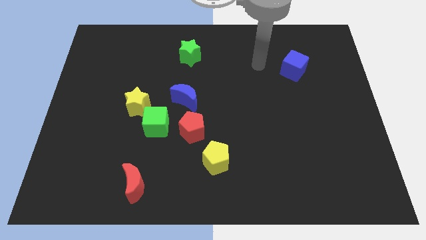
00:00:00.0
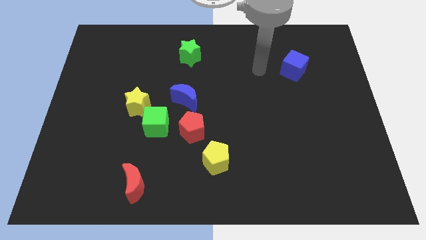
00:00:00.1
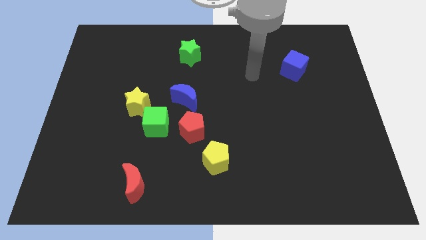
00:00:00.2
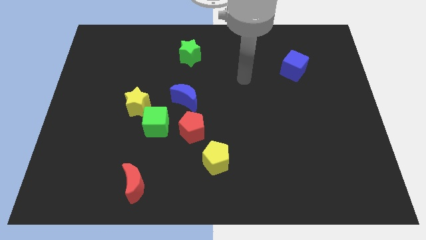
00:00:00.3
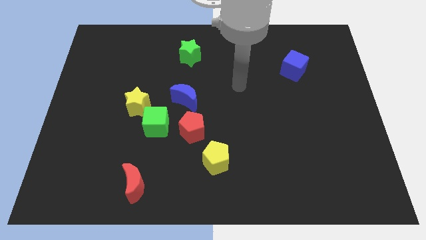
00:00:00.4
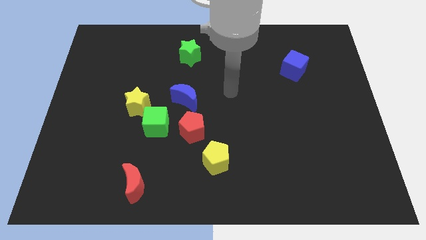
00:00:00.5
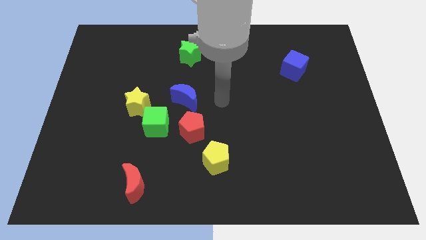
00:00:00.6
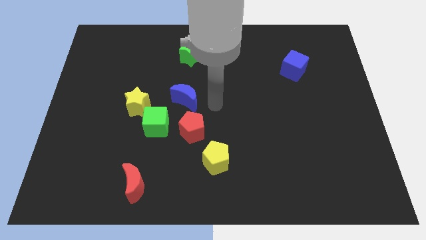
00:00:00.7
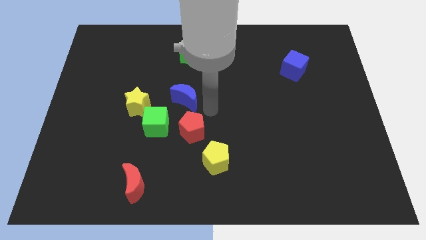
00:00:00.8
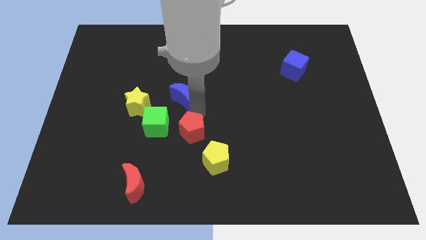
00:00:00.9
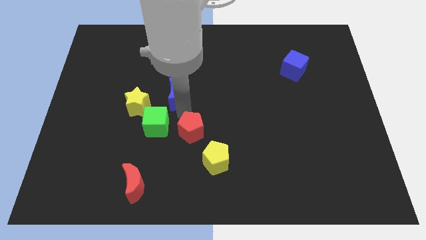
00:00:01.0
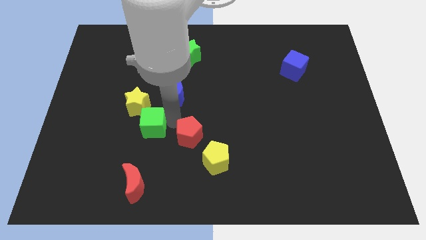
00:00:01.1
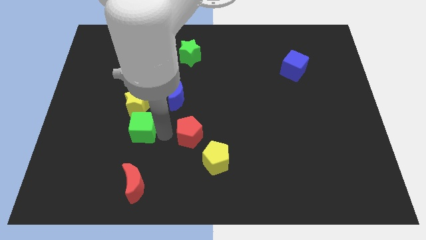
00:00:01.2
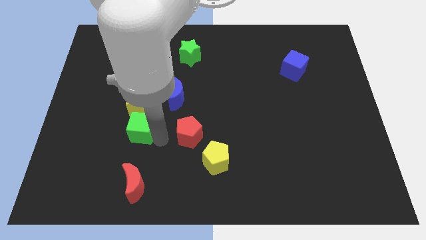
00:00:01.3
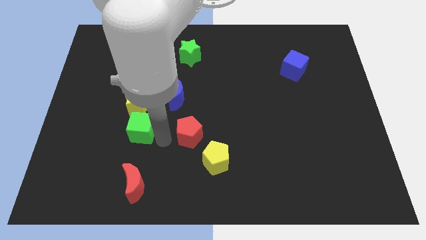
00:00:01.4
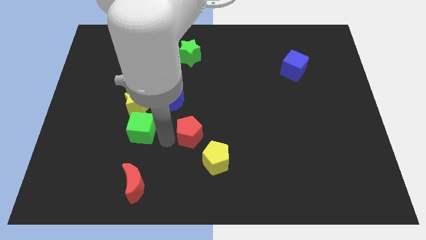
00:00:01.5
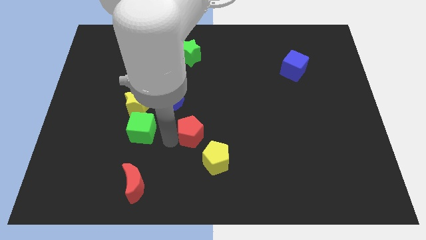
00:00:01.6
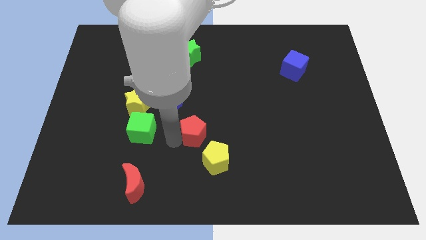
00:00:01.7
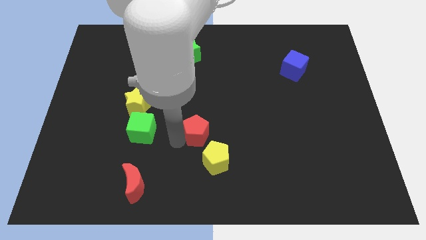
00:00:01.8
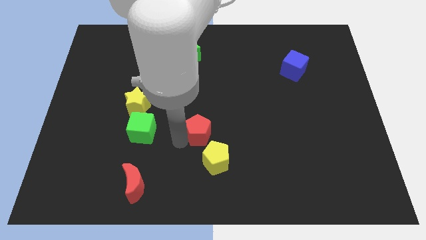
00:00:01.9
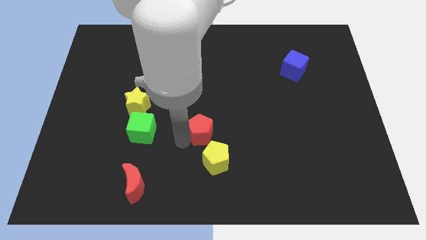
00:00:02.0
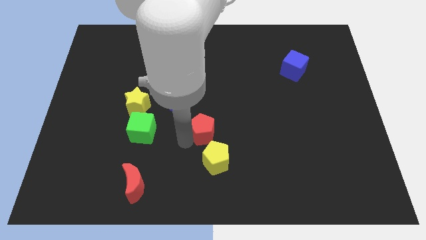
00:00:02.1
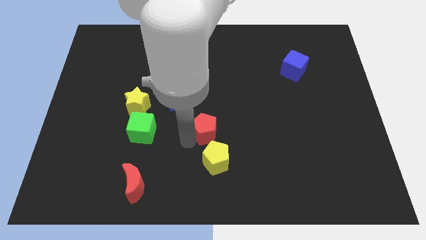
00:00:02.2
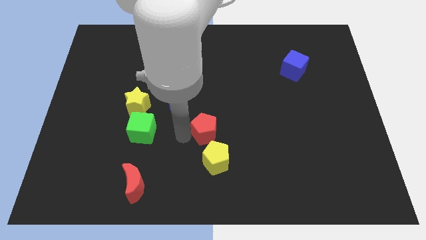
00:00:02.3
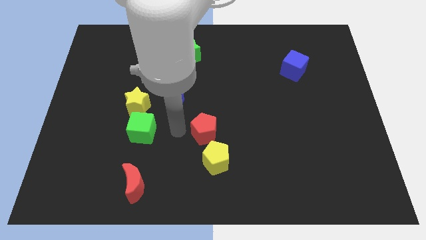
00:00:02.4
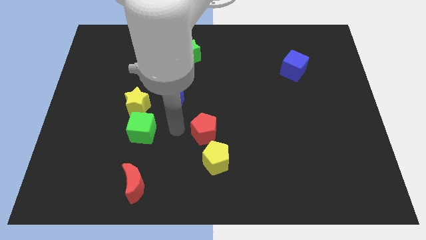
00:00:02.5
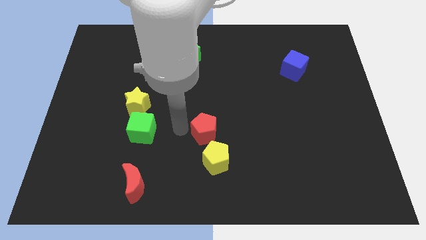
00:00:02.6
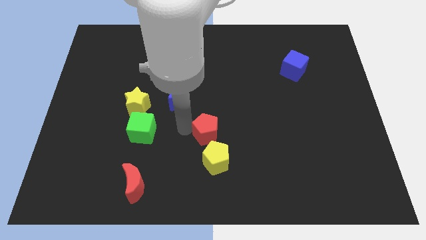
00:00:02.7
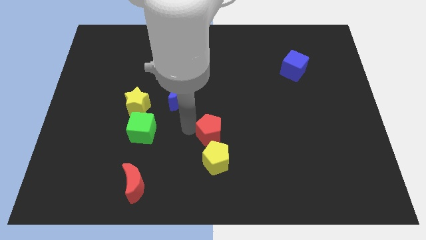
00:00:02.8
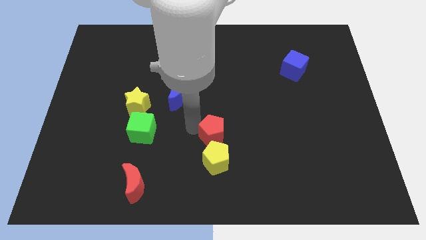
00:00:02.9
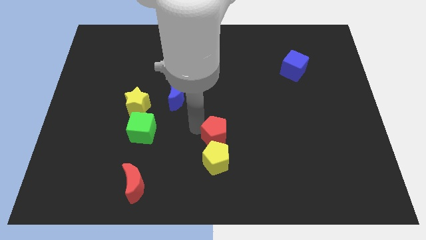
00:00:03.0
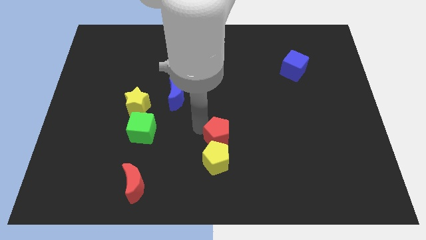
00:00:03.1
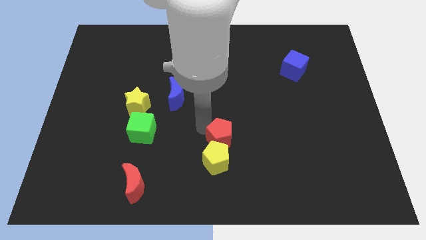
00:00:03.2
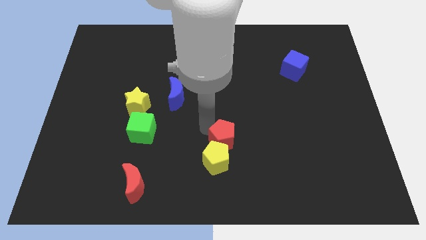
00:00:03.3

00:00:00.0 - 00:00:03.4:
move the red pentagon to the right a little

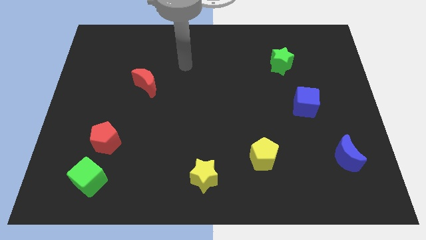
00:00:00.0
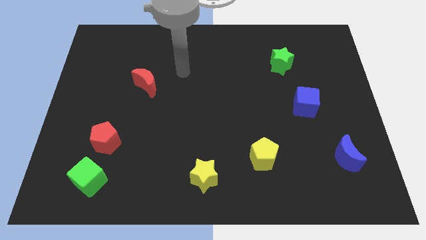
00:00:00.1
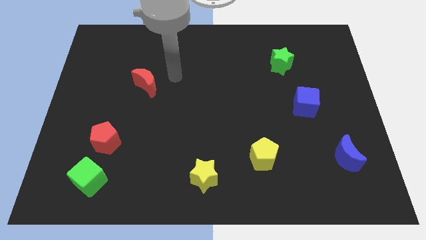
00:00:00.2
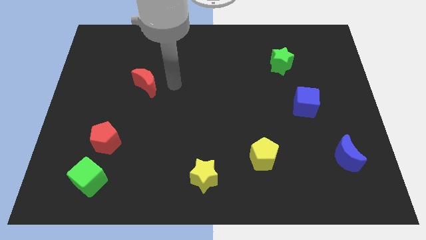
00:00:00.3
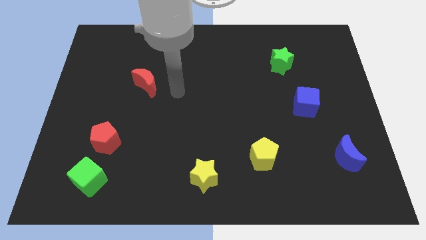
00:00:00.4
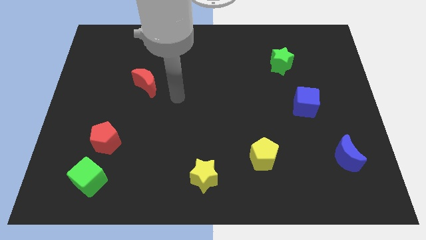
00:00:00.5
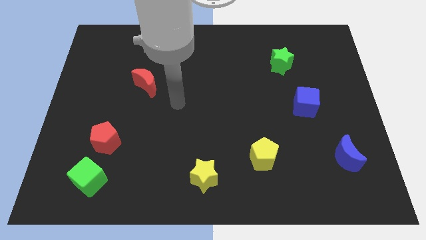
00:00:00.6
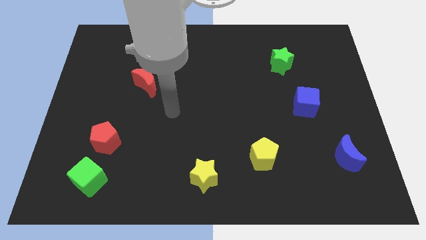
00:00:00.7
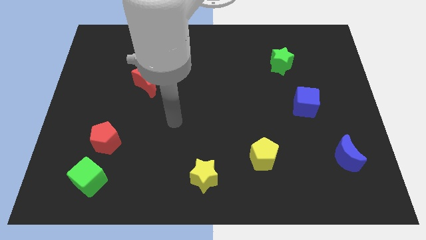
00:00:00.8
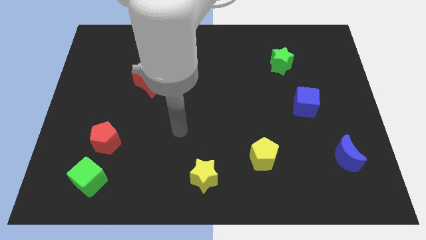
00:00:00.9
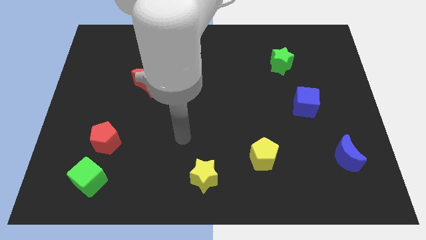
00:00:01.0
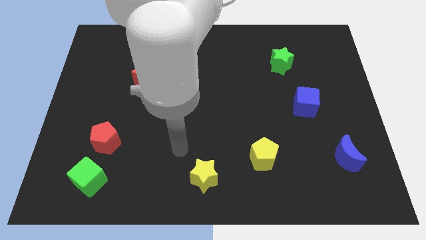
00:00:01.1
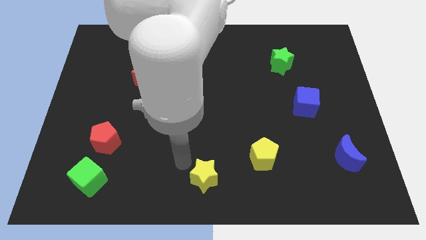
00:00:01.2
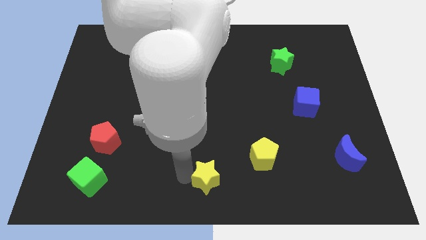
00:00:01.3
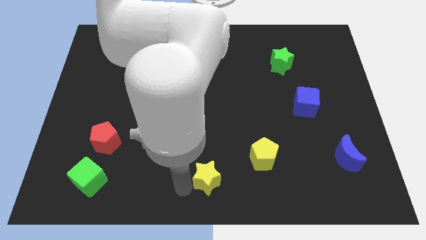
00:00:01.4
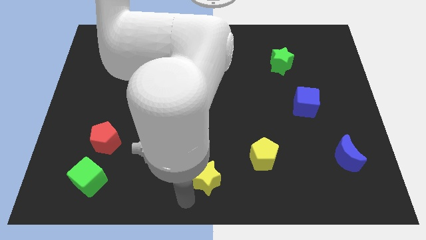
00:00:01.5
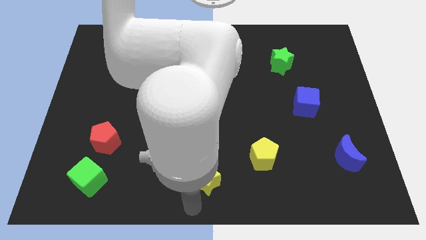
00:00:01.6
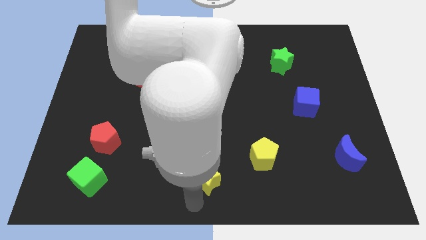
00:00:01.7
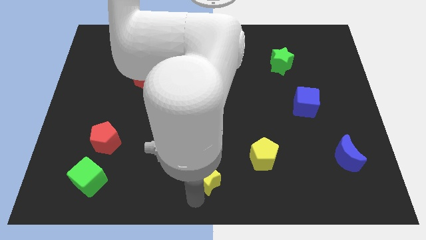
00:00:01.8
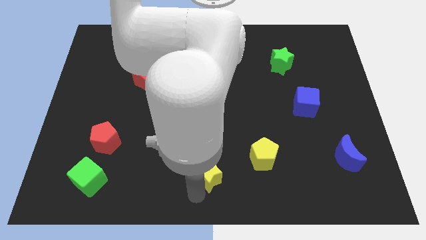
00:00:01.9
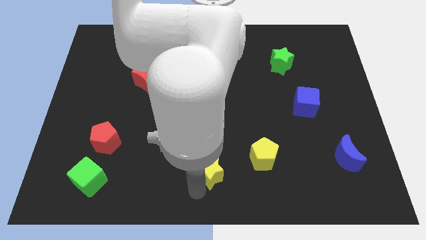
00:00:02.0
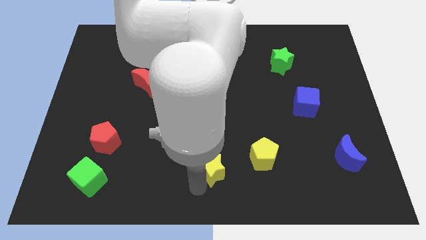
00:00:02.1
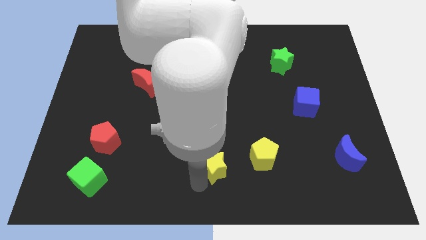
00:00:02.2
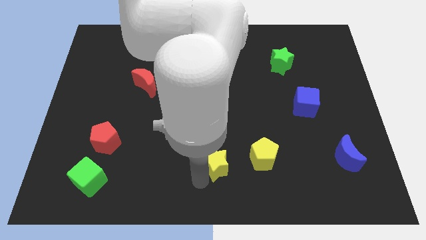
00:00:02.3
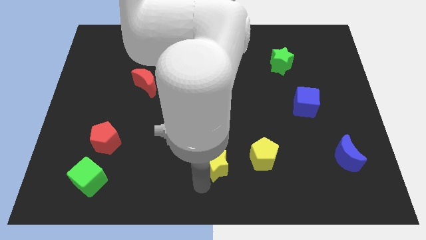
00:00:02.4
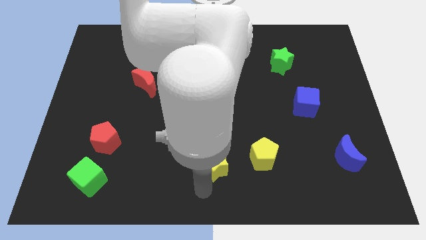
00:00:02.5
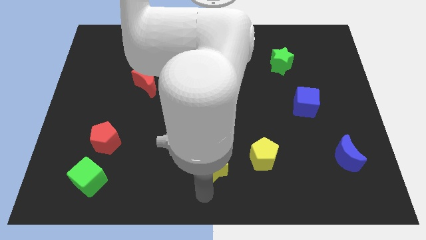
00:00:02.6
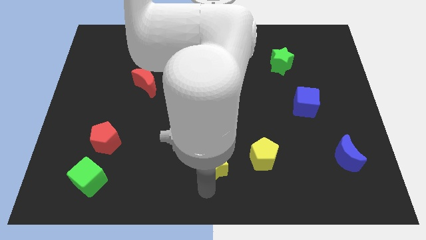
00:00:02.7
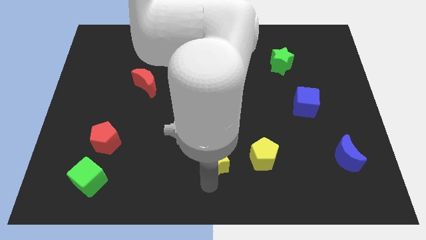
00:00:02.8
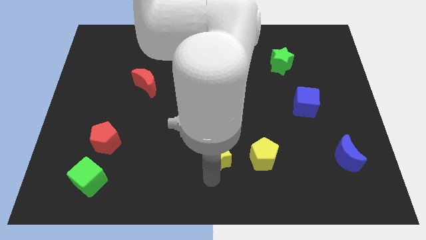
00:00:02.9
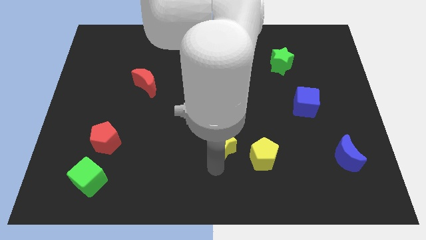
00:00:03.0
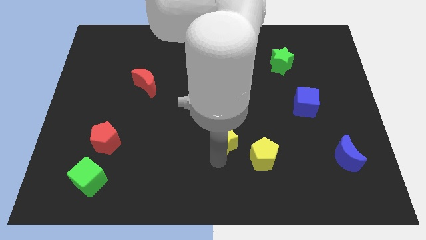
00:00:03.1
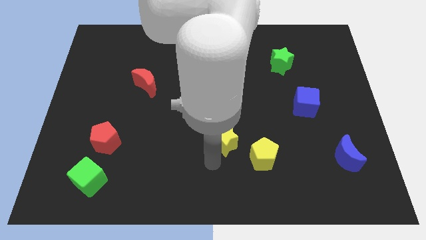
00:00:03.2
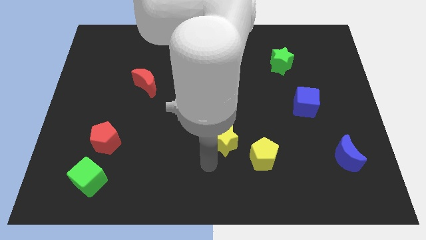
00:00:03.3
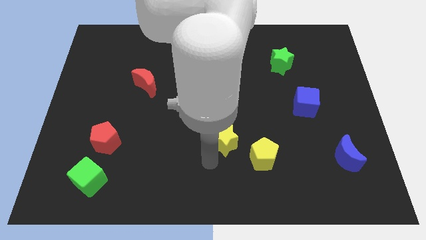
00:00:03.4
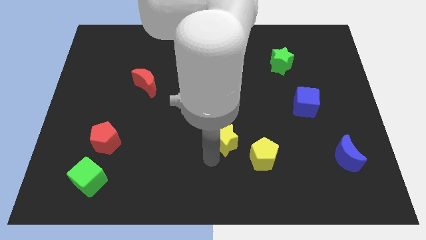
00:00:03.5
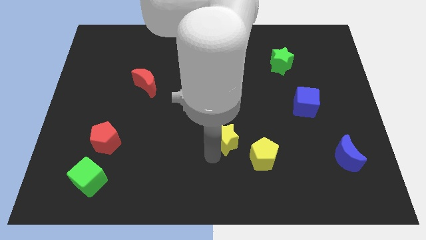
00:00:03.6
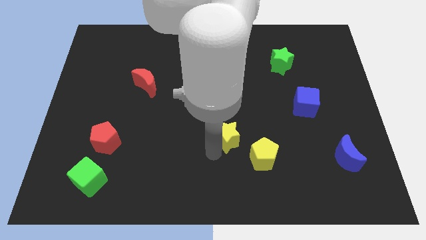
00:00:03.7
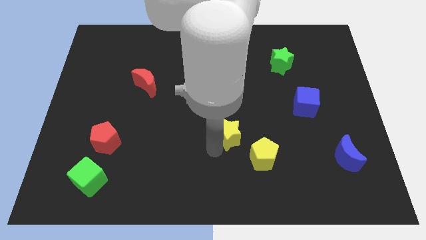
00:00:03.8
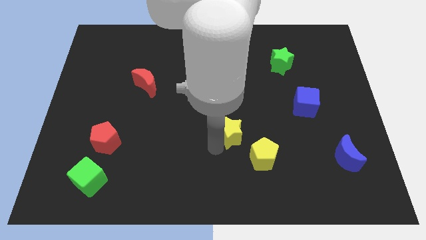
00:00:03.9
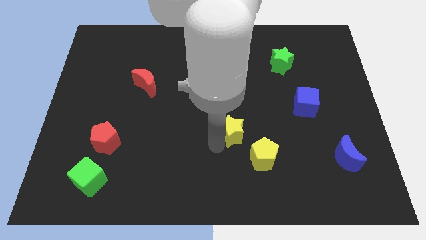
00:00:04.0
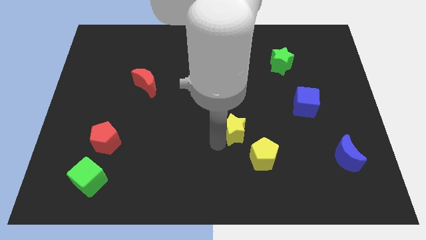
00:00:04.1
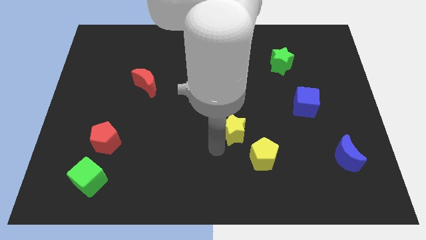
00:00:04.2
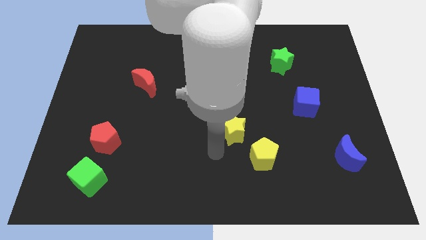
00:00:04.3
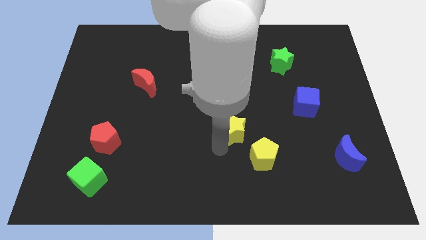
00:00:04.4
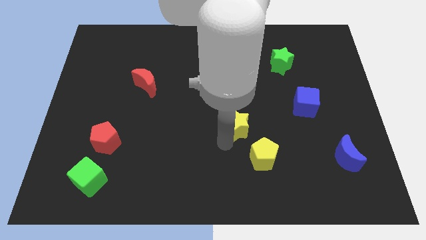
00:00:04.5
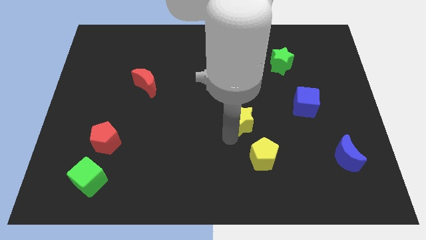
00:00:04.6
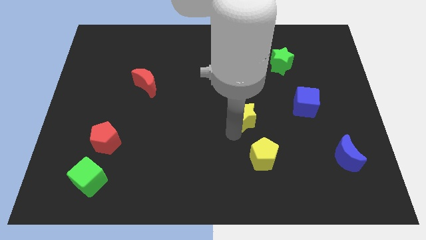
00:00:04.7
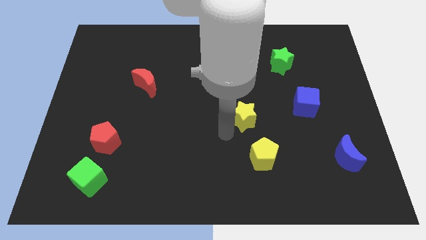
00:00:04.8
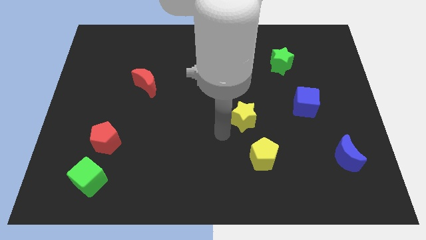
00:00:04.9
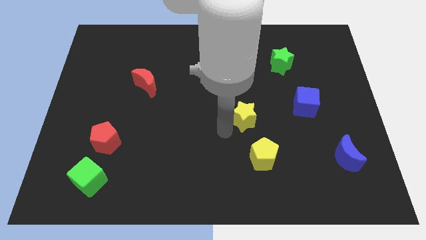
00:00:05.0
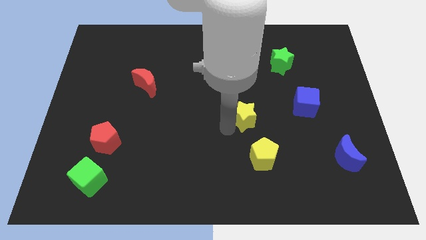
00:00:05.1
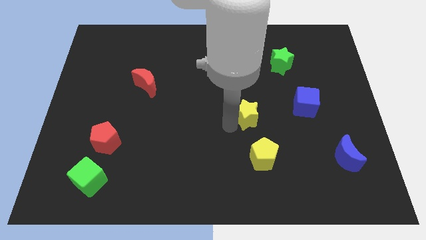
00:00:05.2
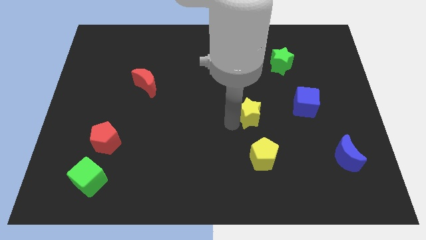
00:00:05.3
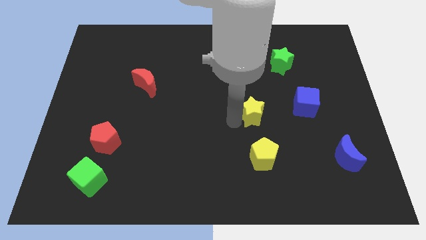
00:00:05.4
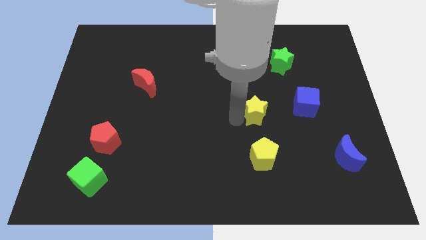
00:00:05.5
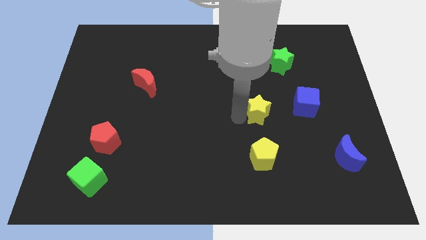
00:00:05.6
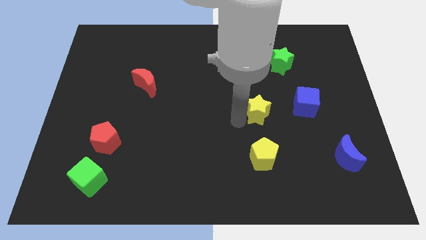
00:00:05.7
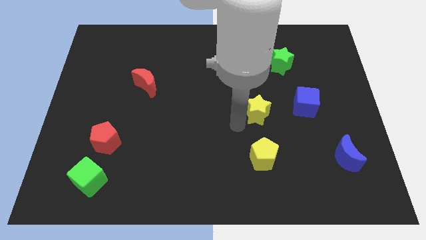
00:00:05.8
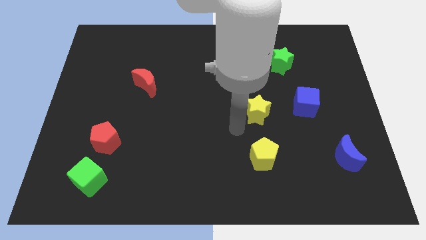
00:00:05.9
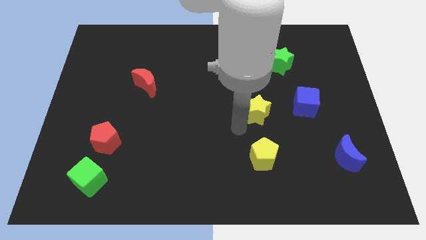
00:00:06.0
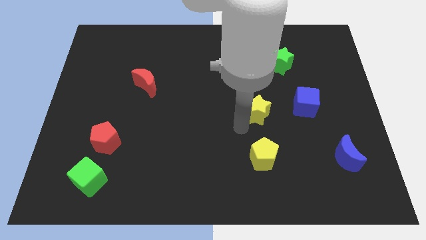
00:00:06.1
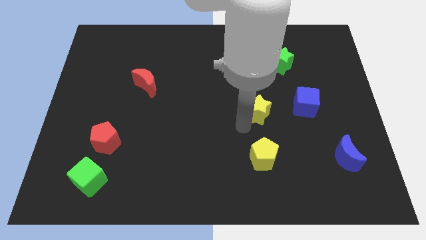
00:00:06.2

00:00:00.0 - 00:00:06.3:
push the yellow star diagonally up and to the right
